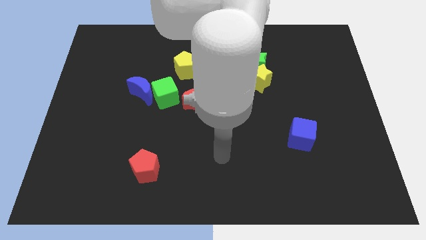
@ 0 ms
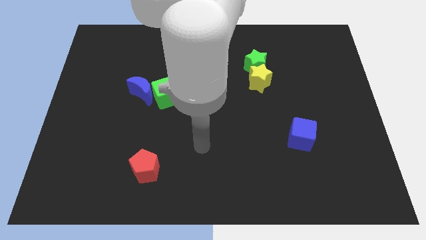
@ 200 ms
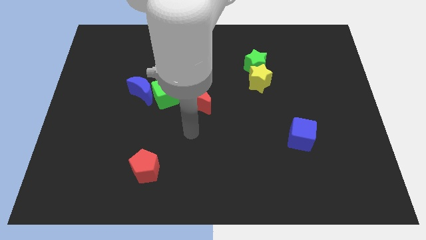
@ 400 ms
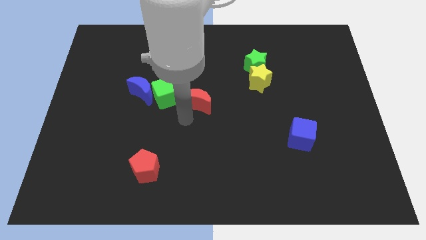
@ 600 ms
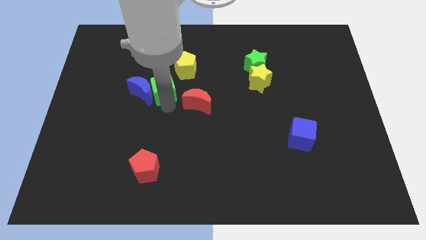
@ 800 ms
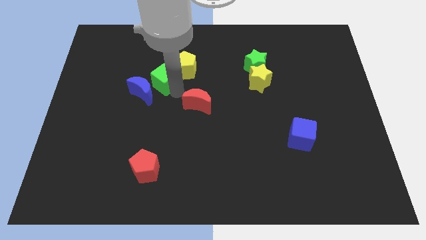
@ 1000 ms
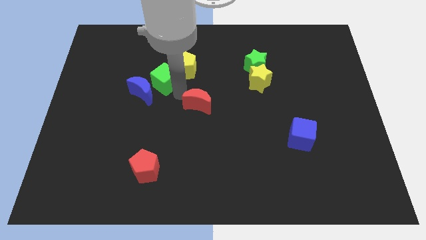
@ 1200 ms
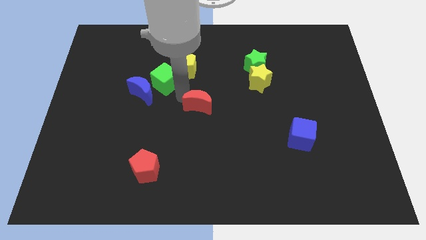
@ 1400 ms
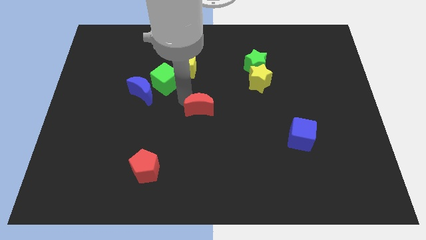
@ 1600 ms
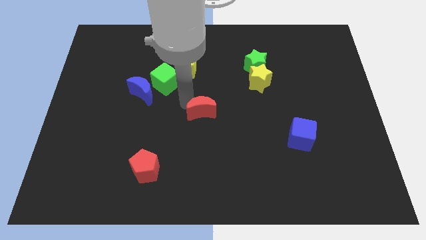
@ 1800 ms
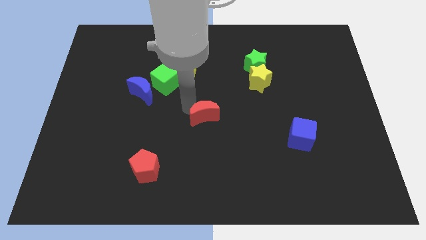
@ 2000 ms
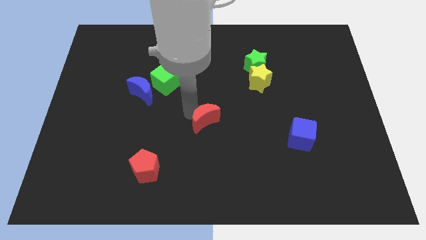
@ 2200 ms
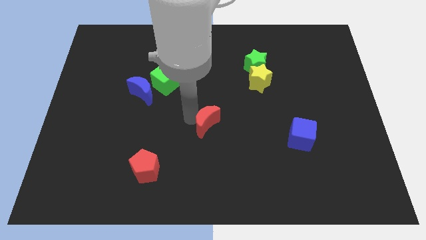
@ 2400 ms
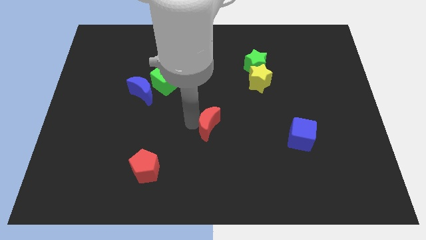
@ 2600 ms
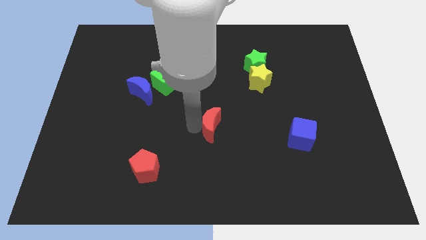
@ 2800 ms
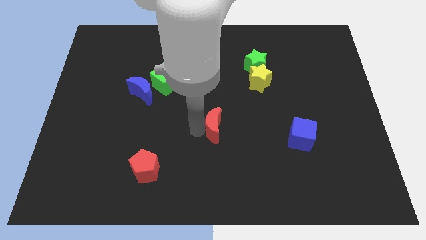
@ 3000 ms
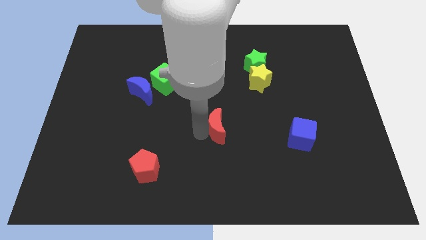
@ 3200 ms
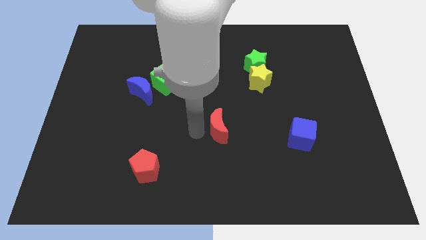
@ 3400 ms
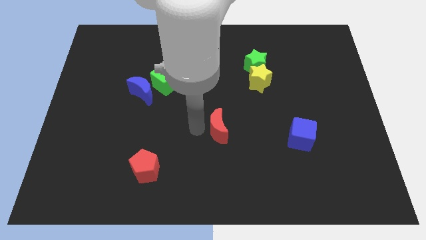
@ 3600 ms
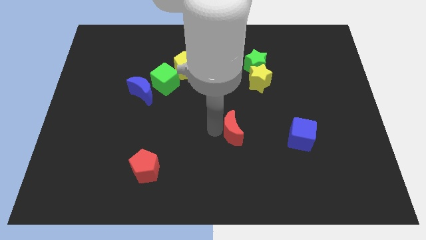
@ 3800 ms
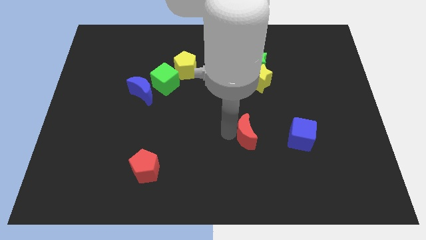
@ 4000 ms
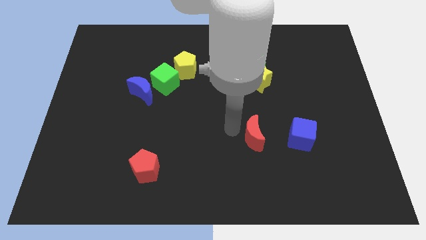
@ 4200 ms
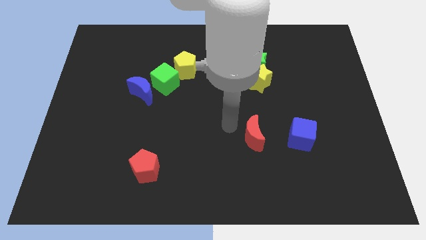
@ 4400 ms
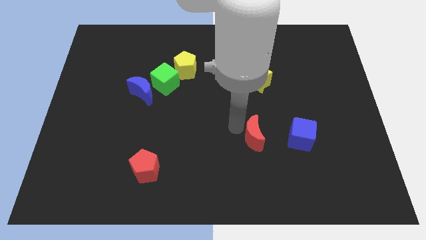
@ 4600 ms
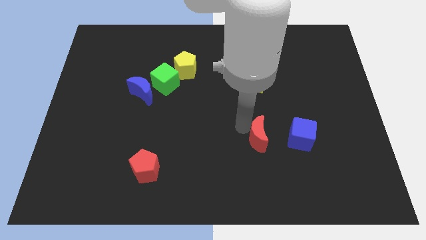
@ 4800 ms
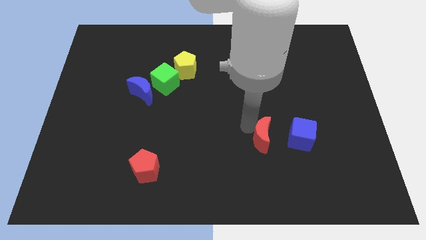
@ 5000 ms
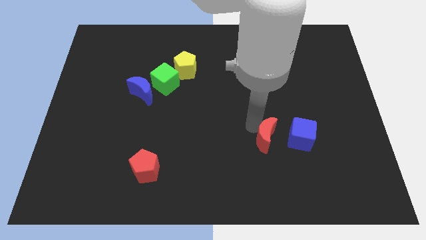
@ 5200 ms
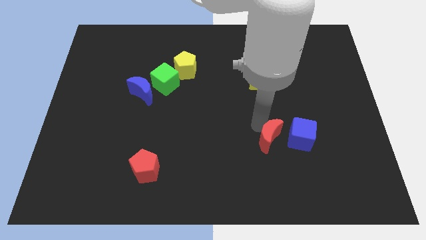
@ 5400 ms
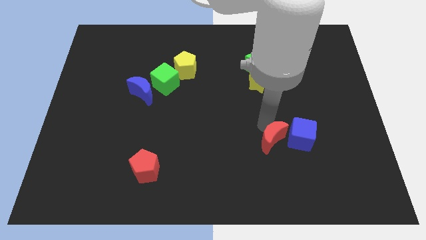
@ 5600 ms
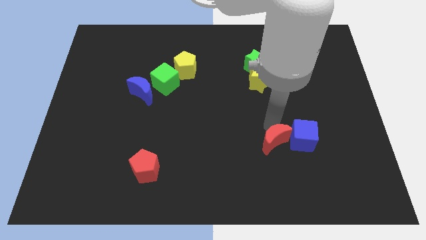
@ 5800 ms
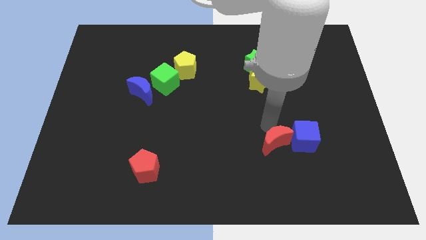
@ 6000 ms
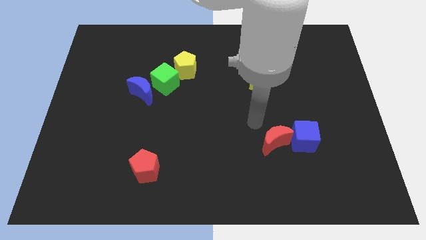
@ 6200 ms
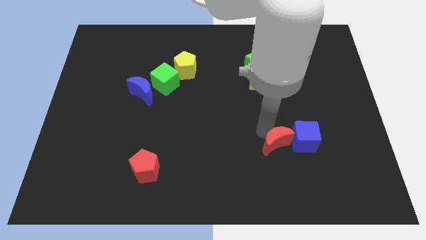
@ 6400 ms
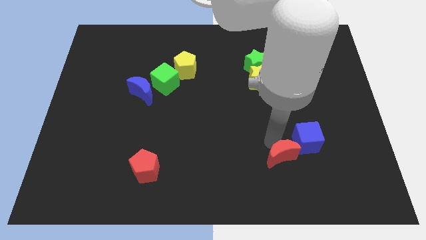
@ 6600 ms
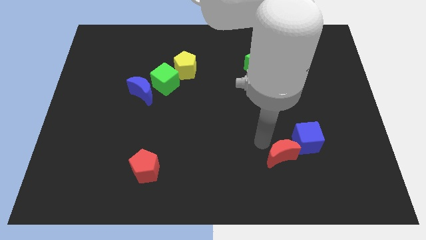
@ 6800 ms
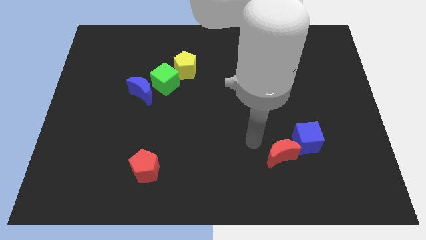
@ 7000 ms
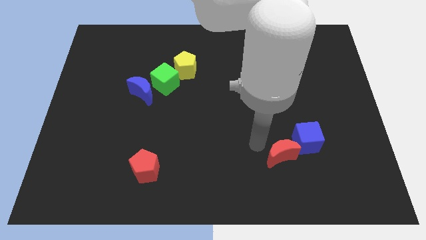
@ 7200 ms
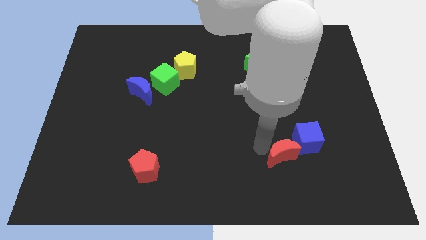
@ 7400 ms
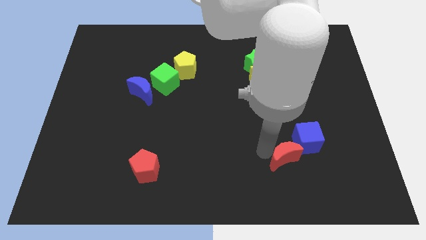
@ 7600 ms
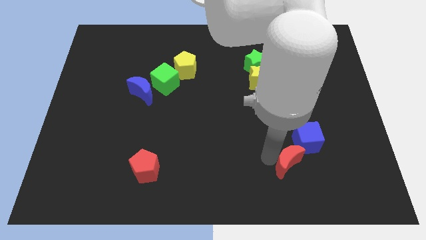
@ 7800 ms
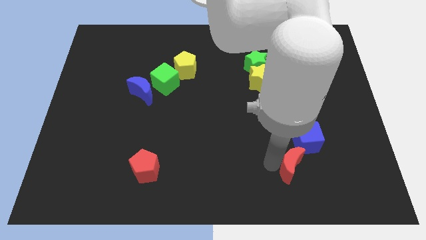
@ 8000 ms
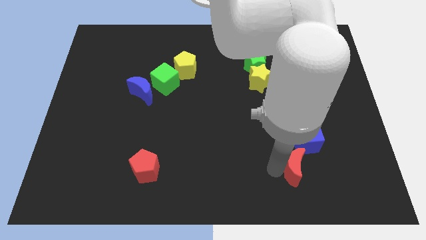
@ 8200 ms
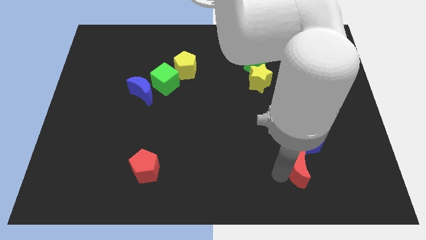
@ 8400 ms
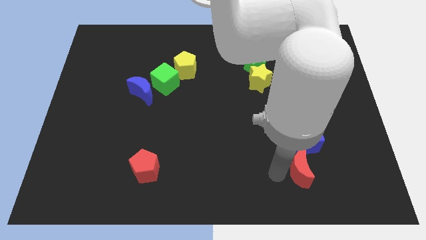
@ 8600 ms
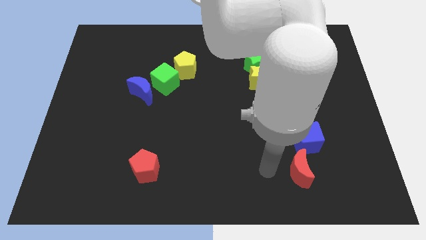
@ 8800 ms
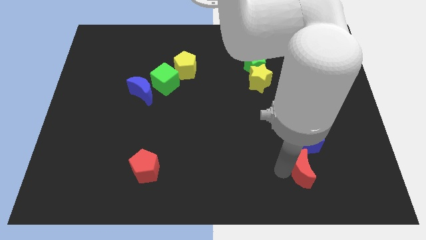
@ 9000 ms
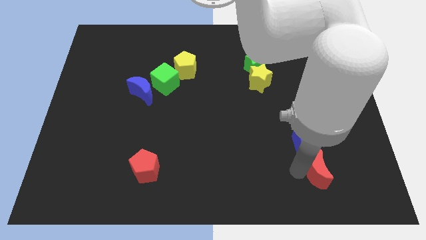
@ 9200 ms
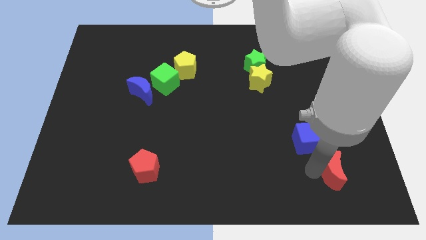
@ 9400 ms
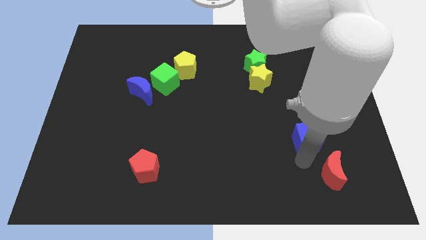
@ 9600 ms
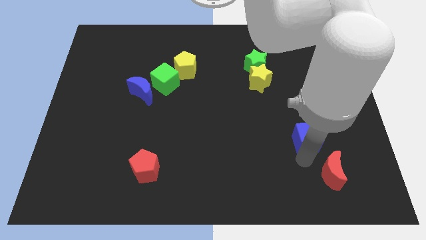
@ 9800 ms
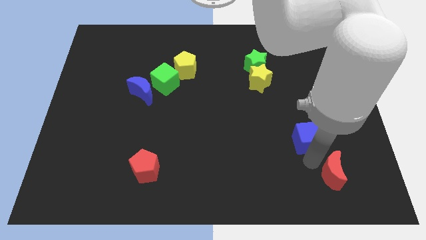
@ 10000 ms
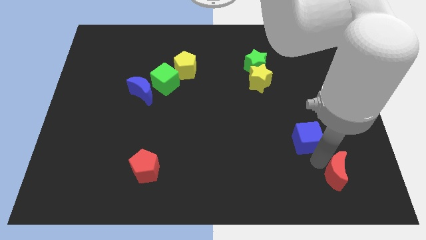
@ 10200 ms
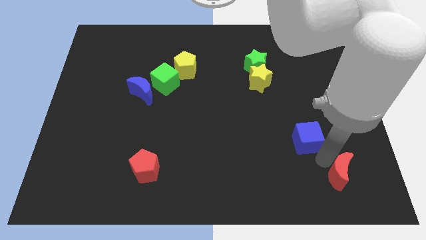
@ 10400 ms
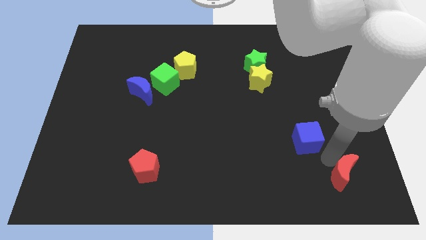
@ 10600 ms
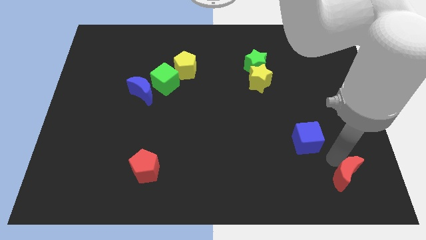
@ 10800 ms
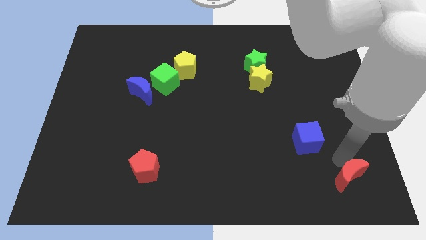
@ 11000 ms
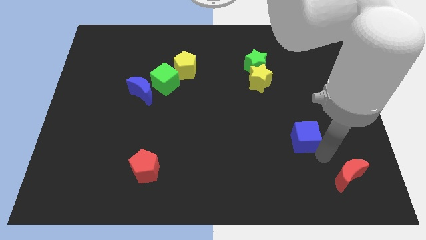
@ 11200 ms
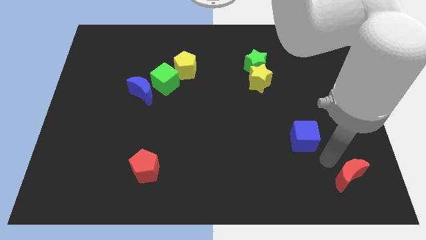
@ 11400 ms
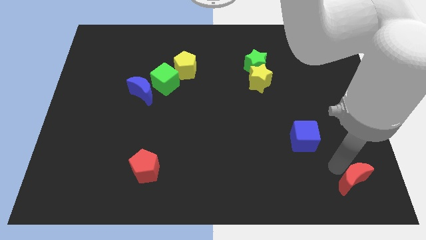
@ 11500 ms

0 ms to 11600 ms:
slide the red moon to the bottom right of the board

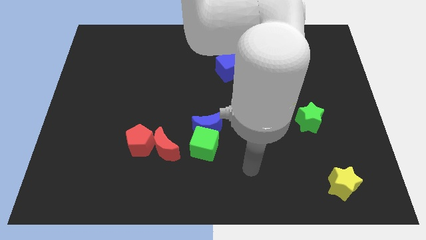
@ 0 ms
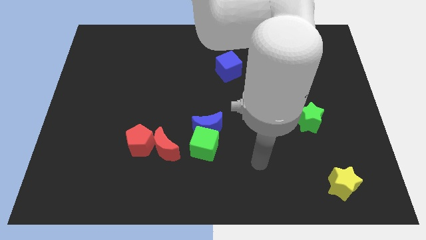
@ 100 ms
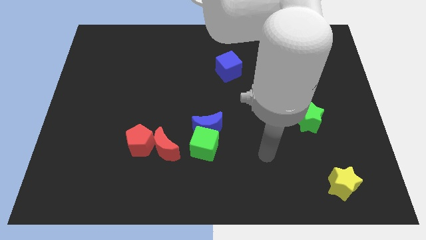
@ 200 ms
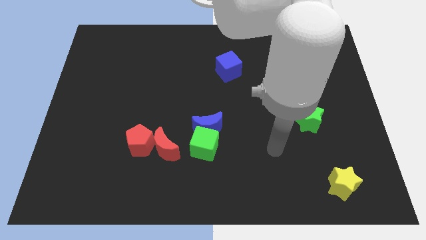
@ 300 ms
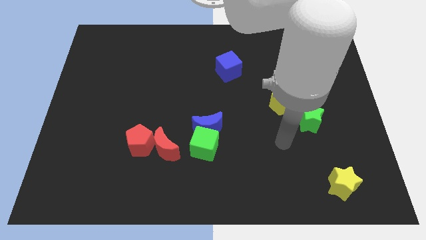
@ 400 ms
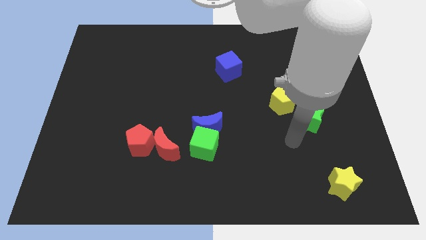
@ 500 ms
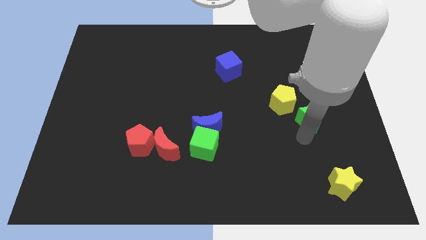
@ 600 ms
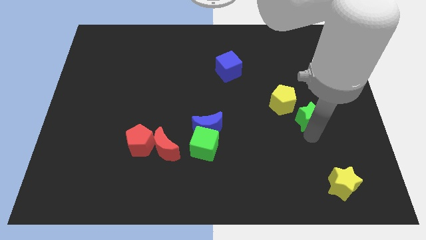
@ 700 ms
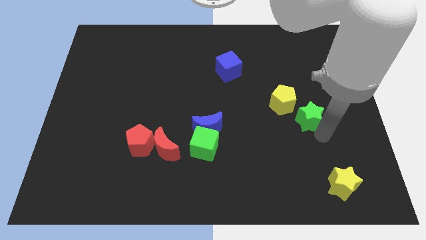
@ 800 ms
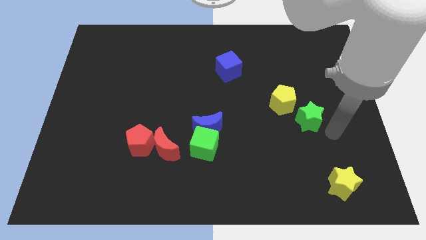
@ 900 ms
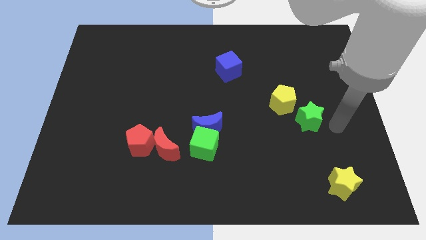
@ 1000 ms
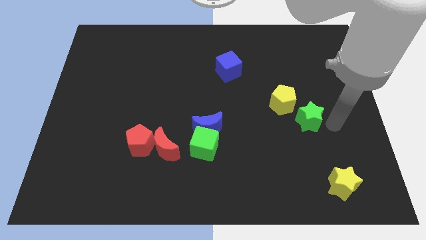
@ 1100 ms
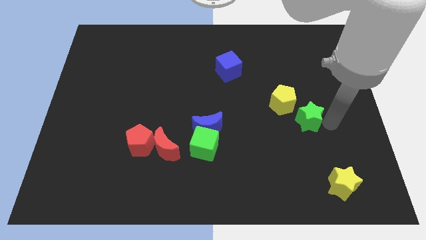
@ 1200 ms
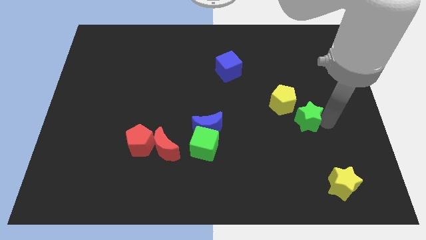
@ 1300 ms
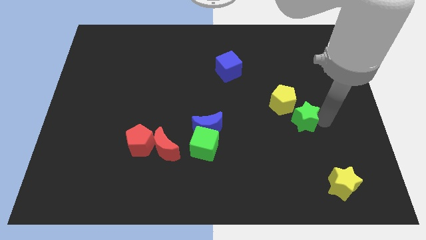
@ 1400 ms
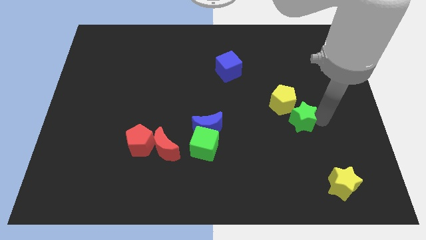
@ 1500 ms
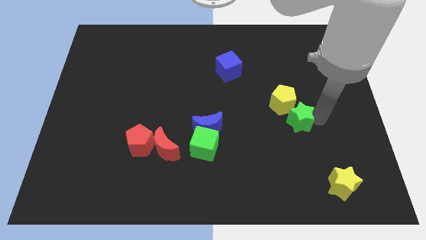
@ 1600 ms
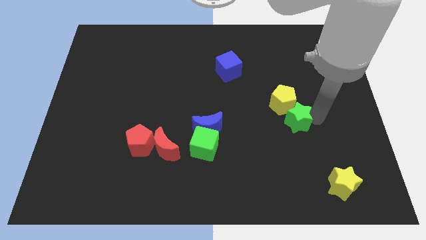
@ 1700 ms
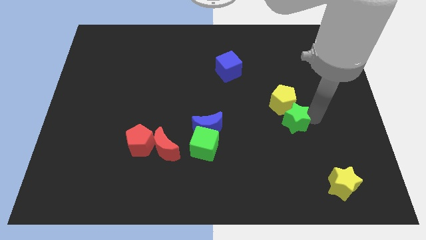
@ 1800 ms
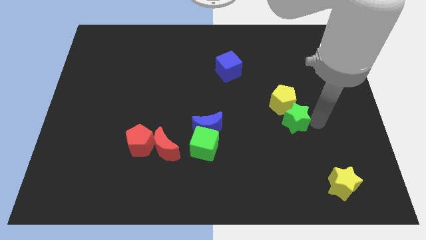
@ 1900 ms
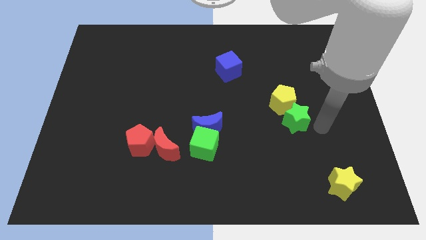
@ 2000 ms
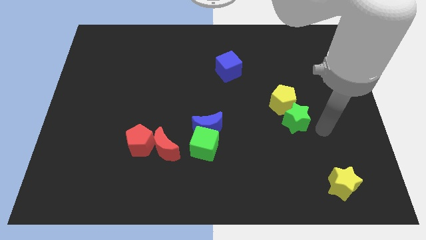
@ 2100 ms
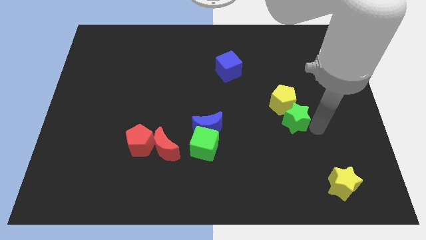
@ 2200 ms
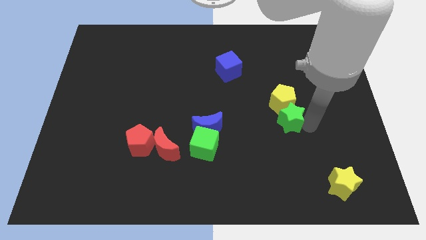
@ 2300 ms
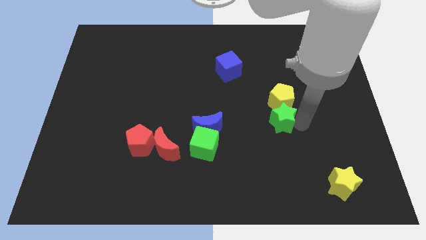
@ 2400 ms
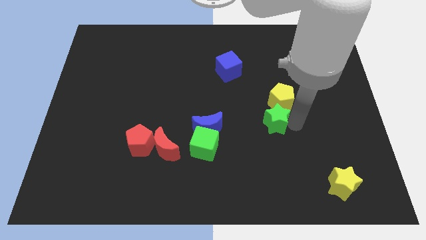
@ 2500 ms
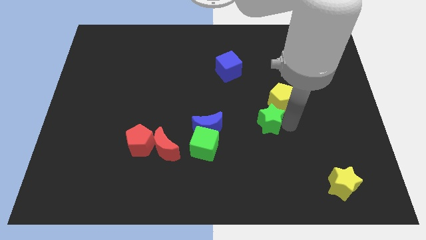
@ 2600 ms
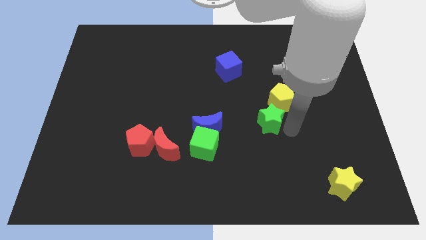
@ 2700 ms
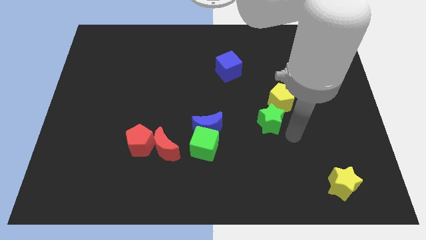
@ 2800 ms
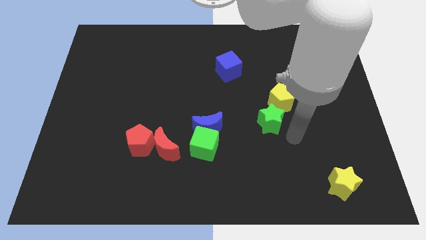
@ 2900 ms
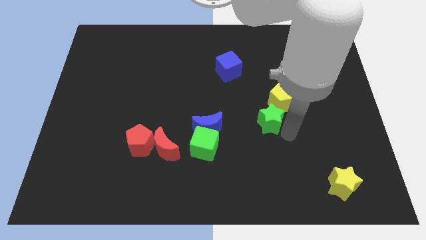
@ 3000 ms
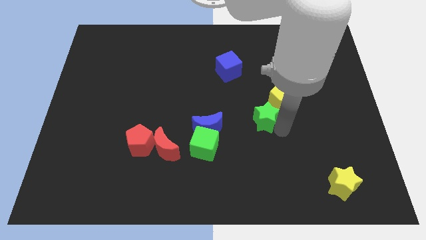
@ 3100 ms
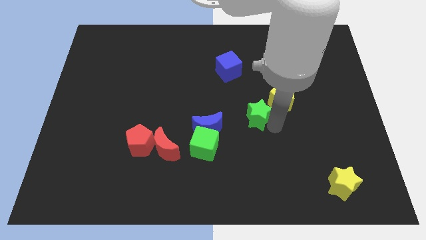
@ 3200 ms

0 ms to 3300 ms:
put the green star to the middle of the board
